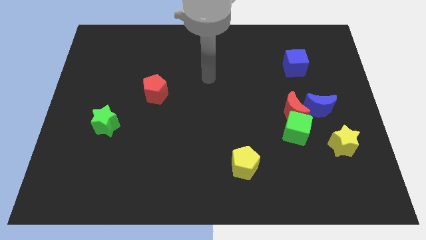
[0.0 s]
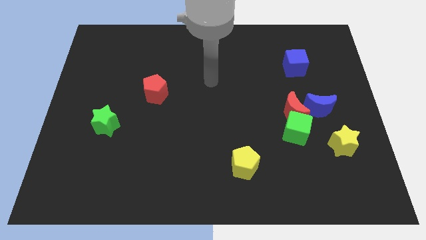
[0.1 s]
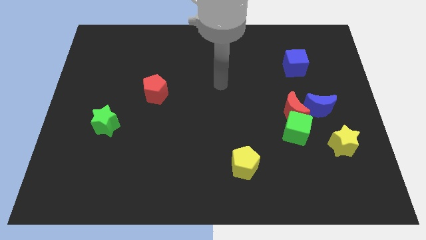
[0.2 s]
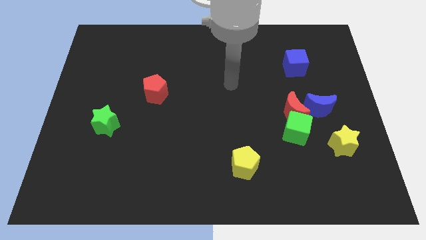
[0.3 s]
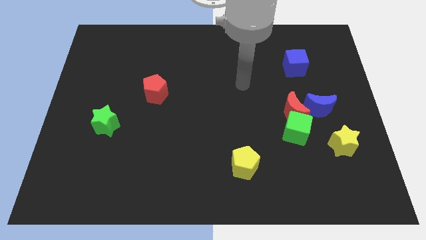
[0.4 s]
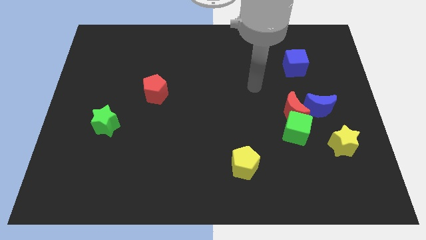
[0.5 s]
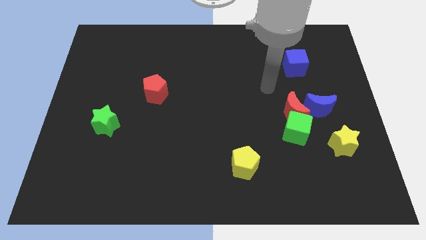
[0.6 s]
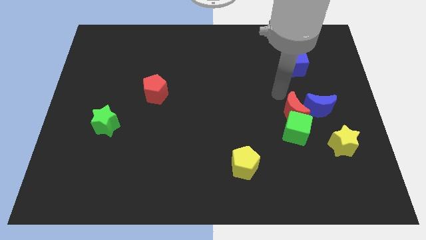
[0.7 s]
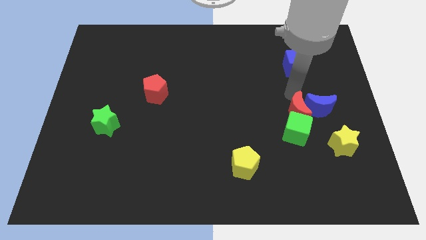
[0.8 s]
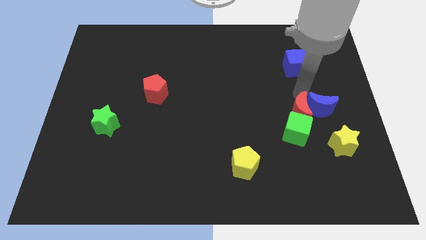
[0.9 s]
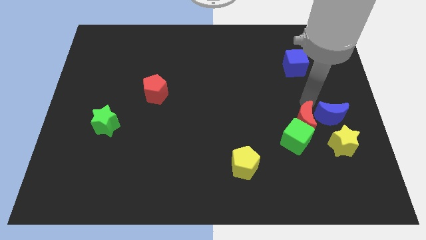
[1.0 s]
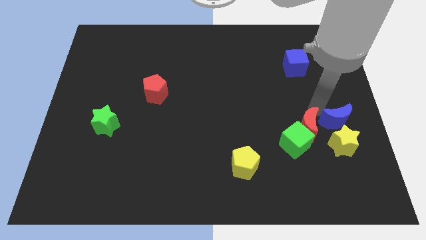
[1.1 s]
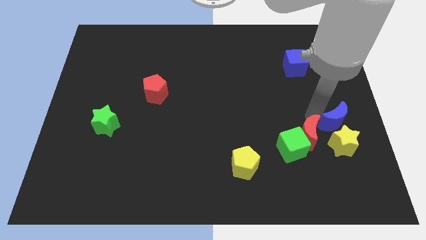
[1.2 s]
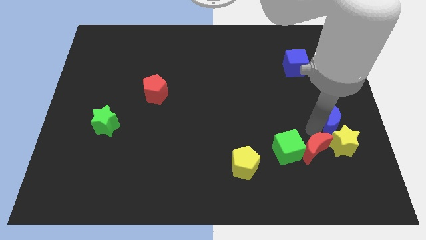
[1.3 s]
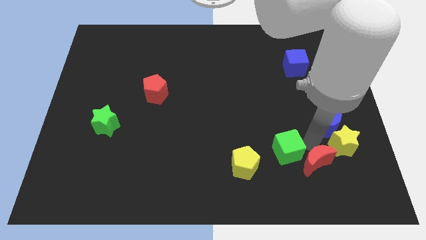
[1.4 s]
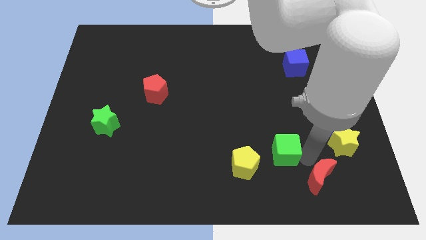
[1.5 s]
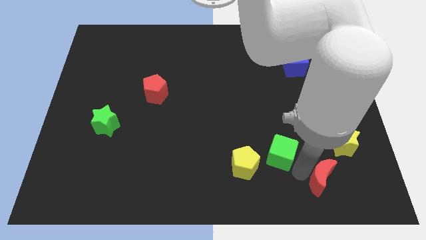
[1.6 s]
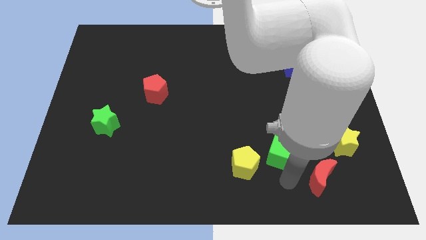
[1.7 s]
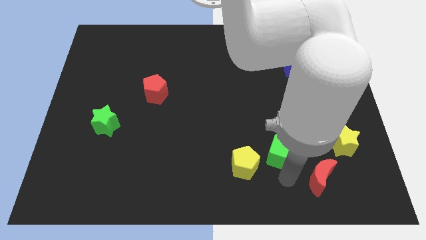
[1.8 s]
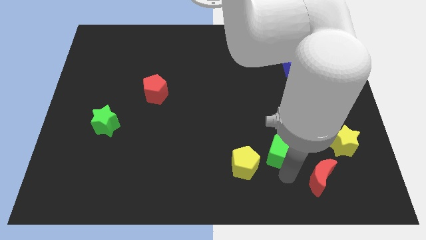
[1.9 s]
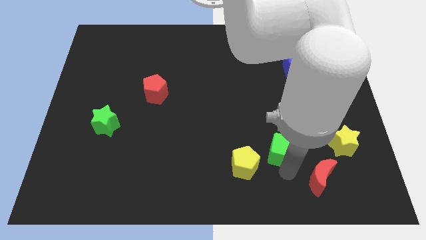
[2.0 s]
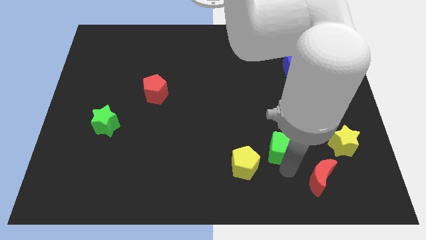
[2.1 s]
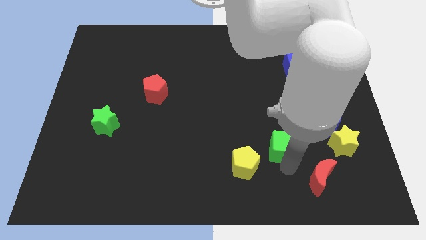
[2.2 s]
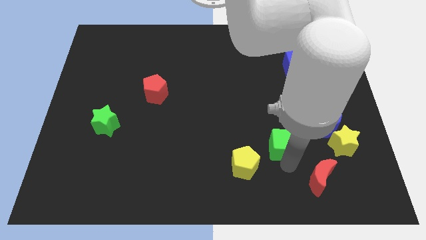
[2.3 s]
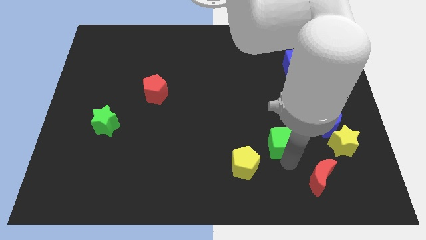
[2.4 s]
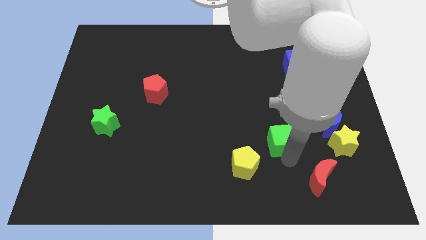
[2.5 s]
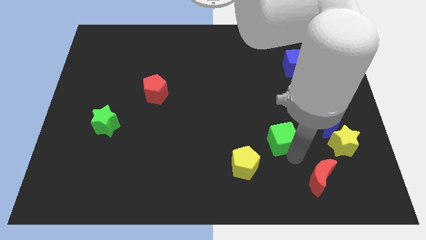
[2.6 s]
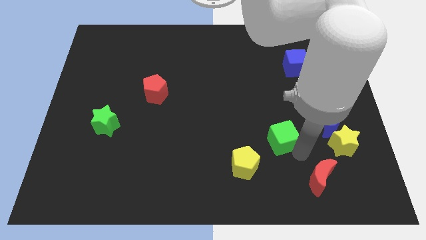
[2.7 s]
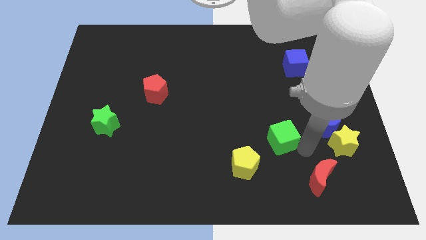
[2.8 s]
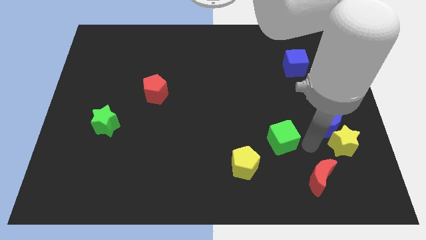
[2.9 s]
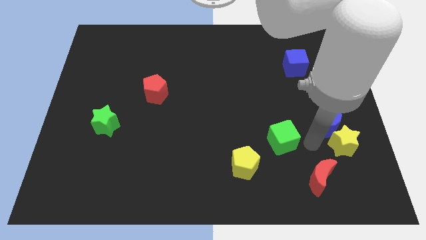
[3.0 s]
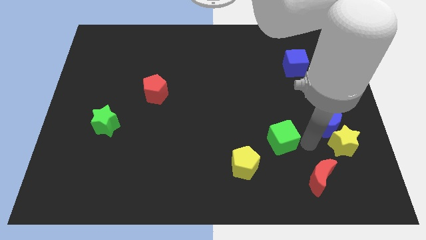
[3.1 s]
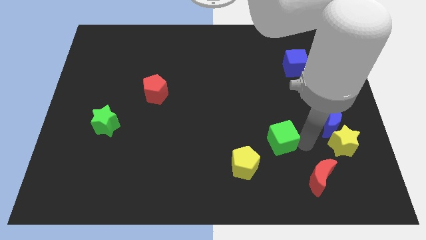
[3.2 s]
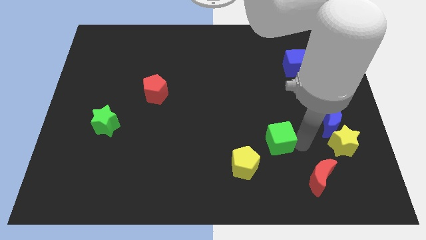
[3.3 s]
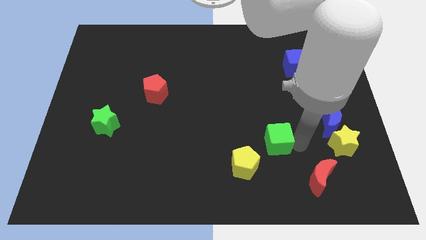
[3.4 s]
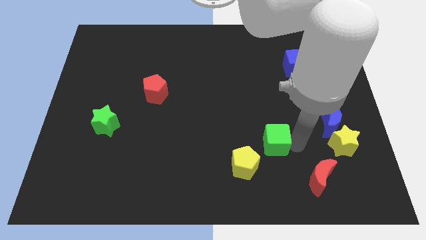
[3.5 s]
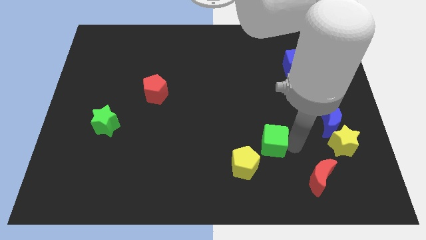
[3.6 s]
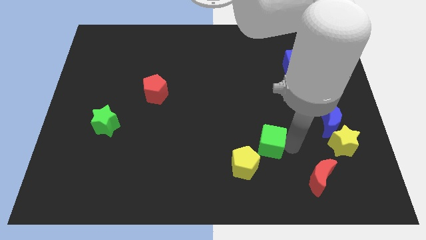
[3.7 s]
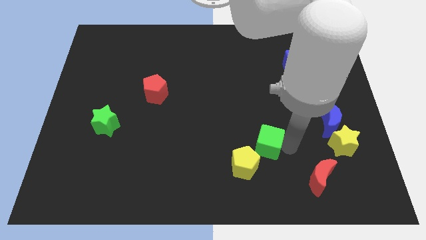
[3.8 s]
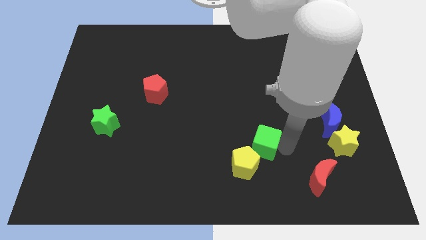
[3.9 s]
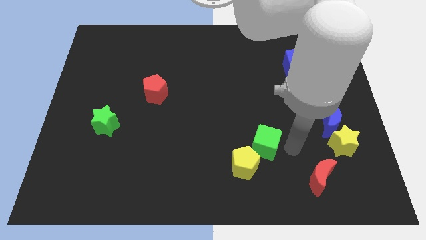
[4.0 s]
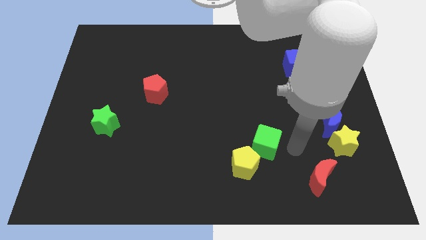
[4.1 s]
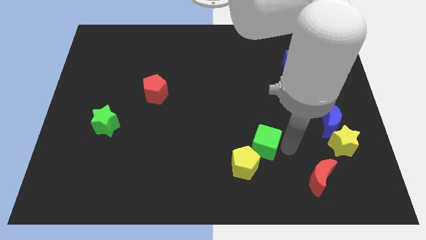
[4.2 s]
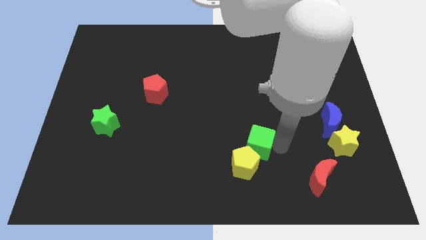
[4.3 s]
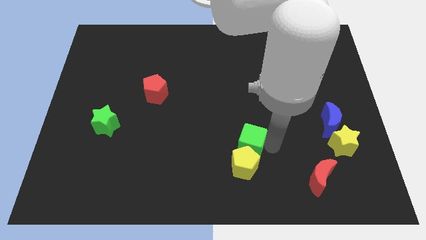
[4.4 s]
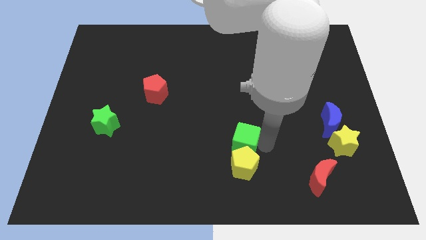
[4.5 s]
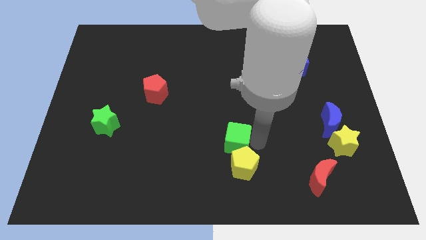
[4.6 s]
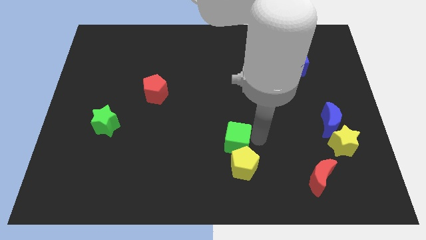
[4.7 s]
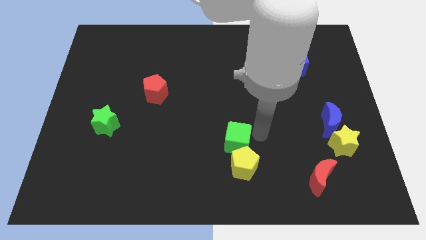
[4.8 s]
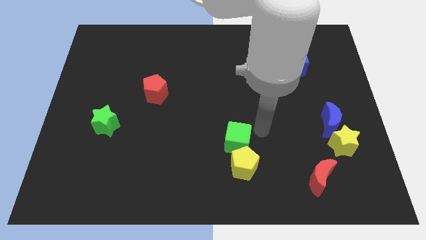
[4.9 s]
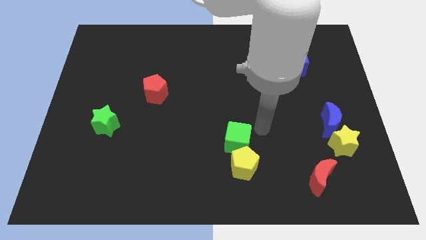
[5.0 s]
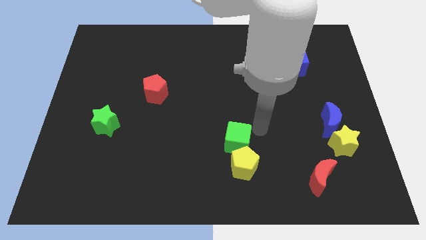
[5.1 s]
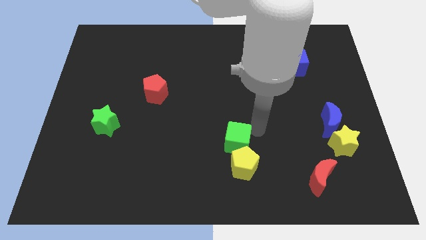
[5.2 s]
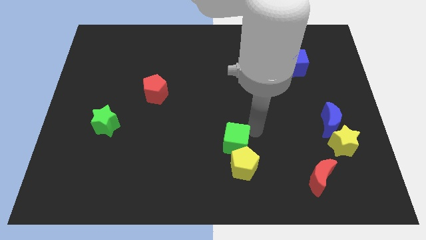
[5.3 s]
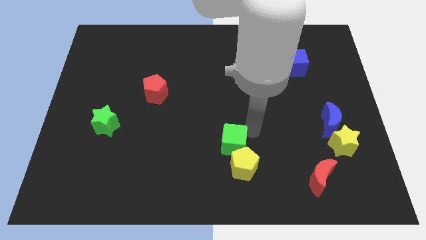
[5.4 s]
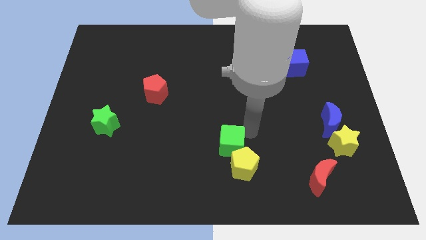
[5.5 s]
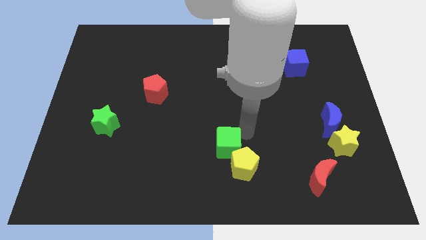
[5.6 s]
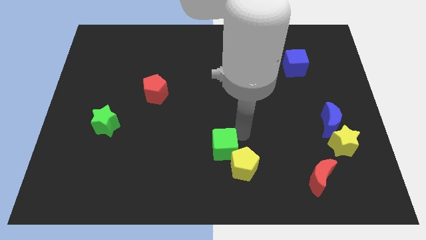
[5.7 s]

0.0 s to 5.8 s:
slide the green cube just left of the yellow pentagon

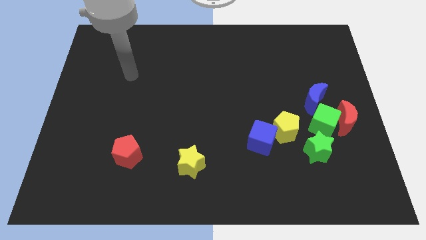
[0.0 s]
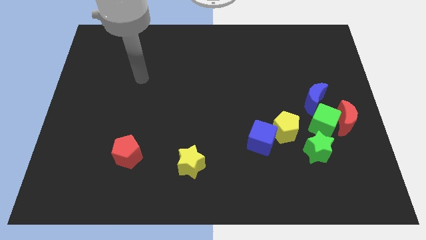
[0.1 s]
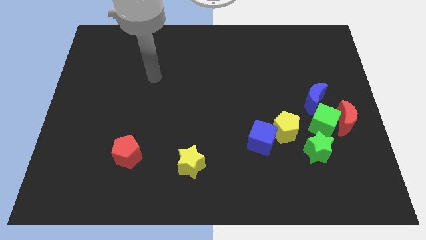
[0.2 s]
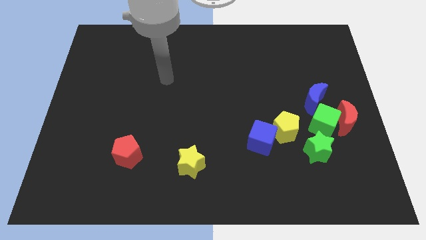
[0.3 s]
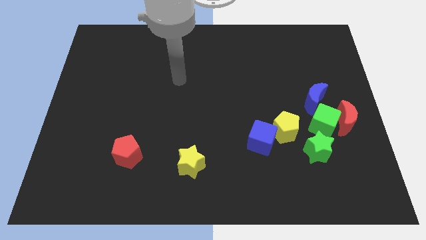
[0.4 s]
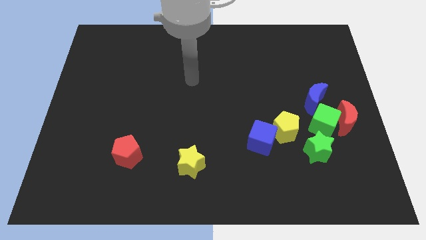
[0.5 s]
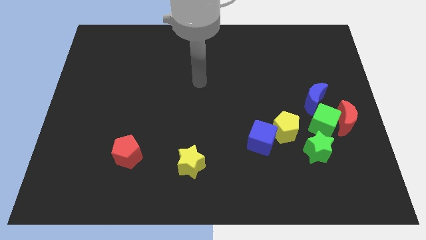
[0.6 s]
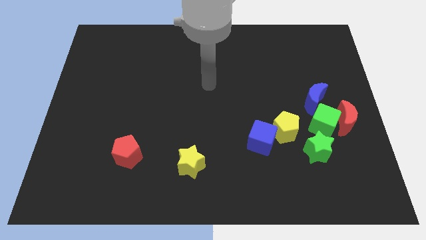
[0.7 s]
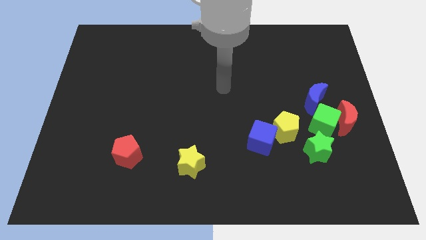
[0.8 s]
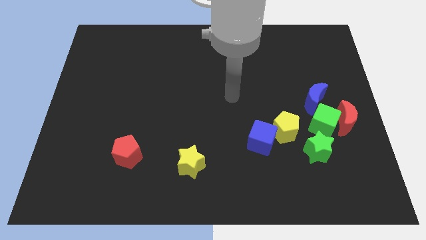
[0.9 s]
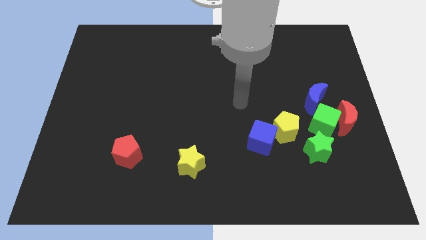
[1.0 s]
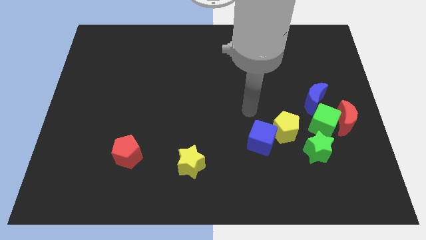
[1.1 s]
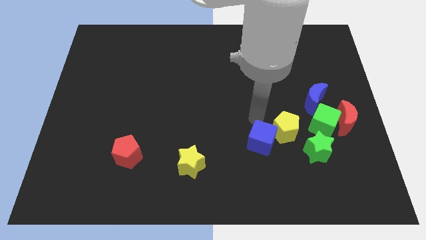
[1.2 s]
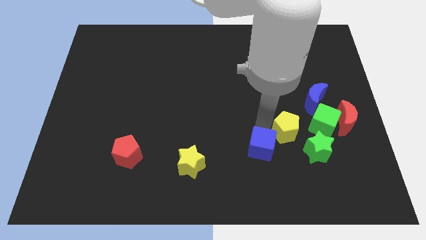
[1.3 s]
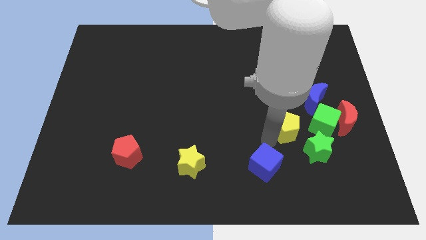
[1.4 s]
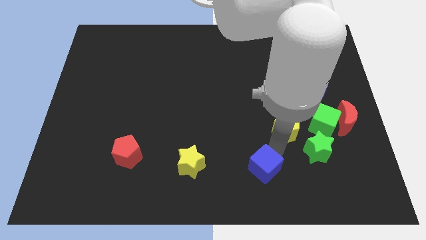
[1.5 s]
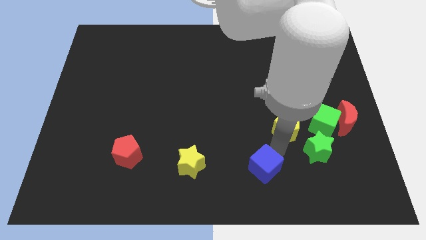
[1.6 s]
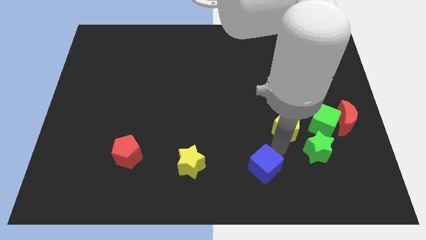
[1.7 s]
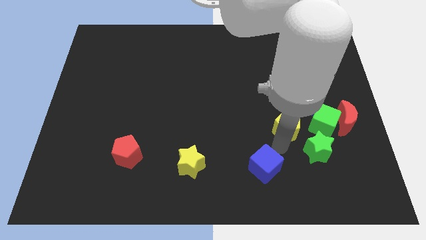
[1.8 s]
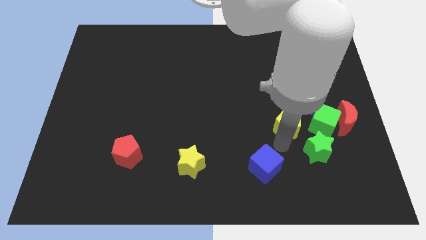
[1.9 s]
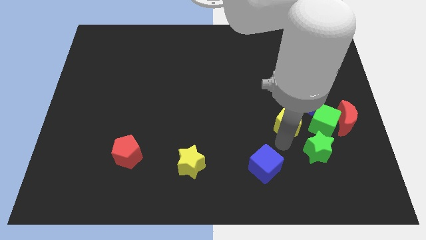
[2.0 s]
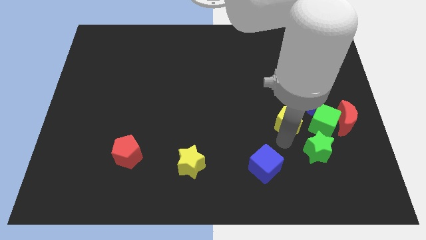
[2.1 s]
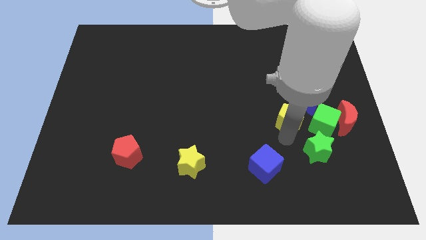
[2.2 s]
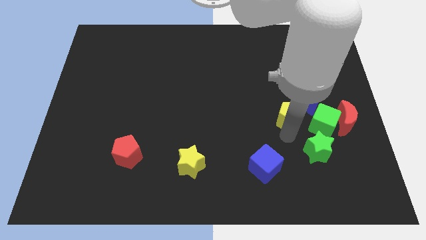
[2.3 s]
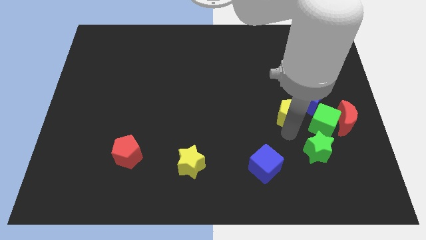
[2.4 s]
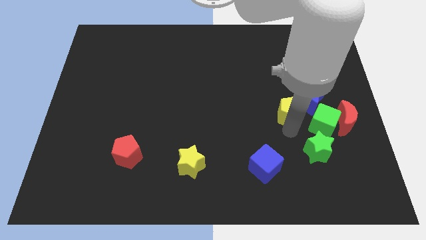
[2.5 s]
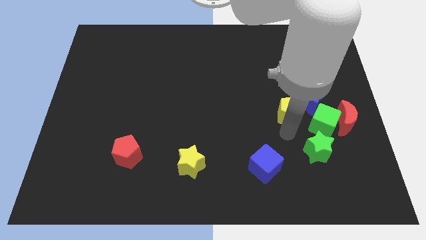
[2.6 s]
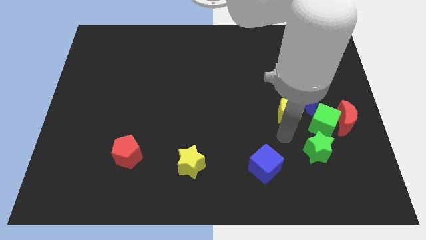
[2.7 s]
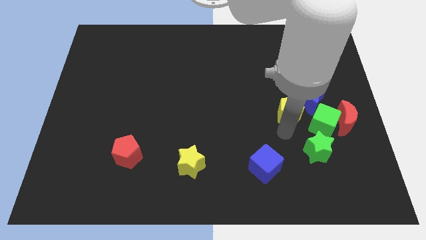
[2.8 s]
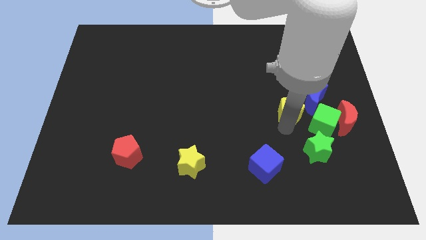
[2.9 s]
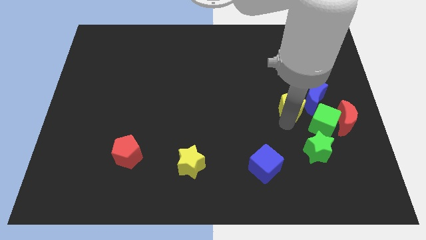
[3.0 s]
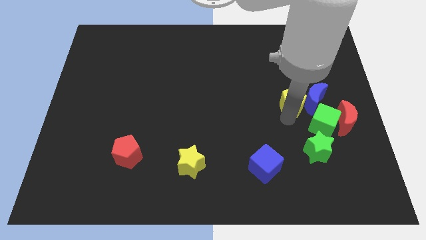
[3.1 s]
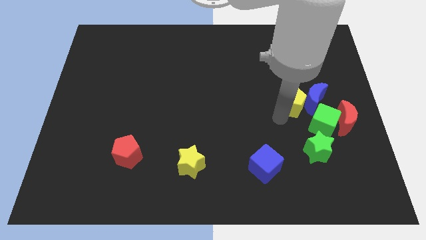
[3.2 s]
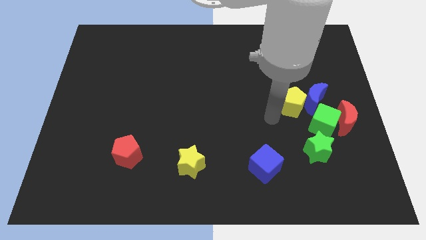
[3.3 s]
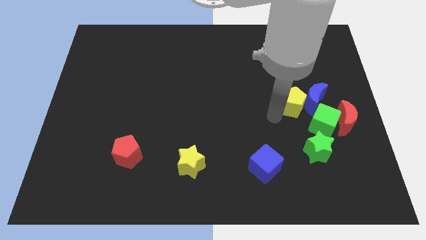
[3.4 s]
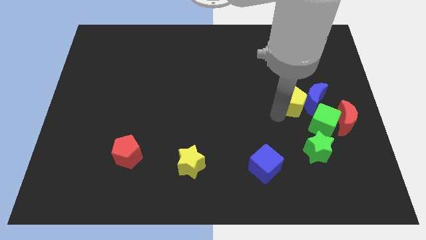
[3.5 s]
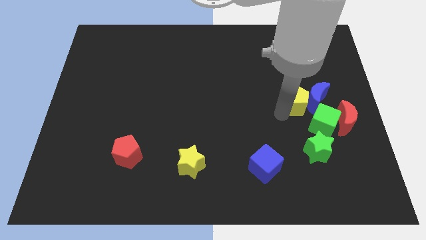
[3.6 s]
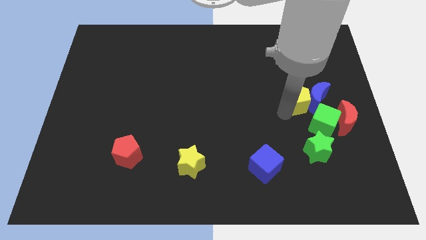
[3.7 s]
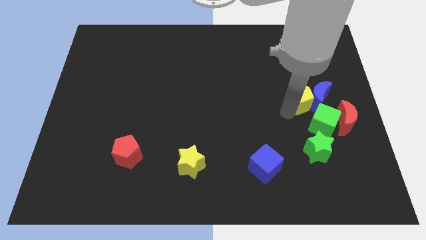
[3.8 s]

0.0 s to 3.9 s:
move the yellow pentagon to the top of the green cube
